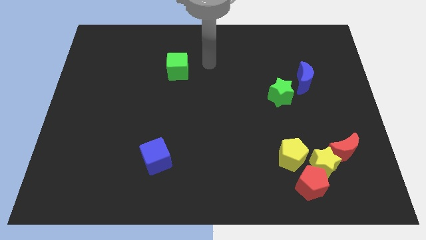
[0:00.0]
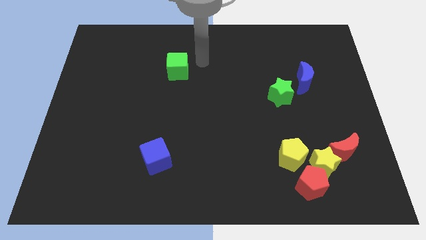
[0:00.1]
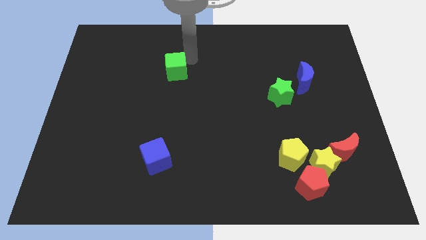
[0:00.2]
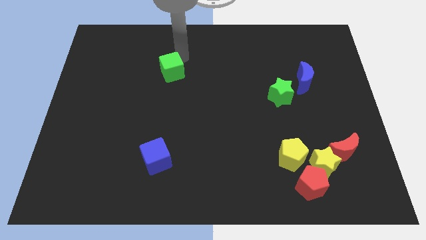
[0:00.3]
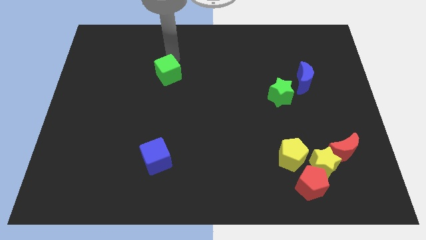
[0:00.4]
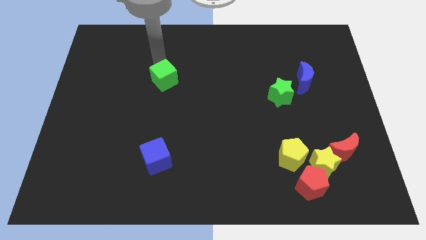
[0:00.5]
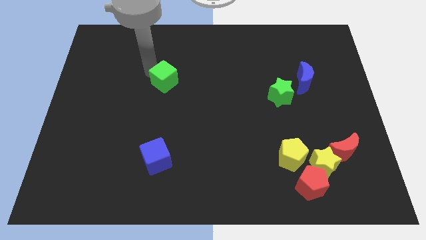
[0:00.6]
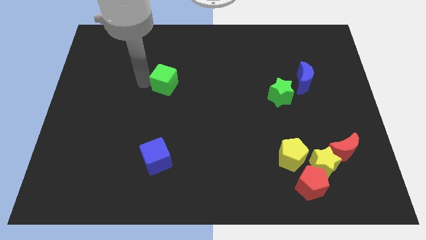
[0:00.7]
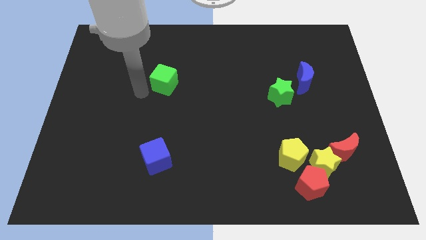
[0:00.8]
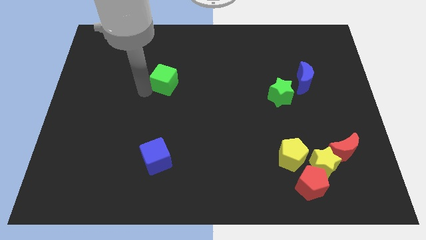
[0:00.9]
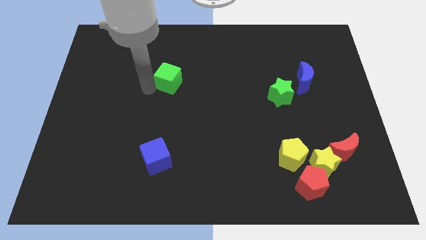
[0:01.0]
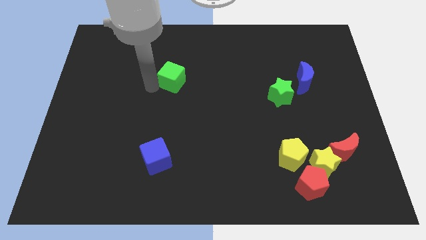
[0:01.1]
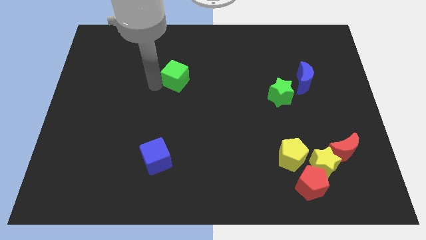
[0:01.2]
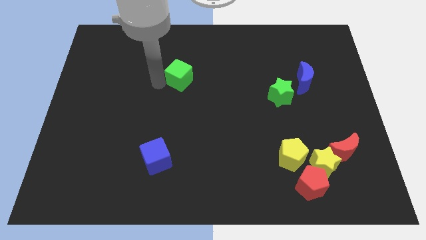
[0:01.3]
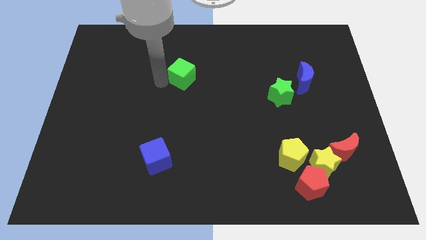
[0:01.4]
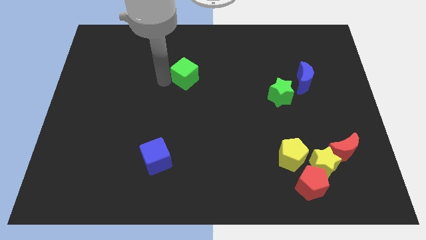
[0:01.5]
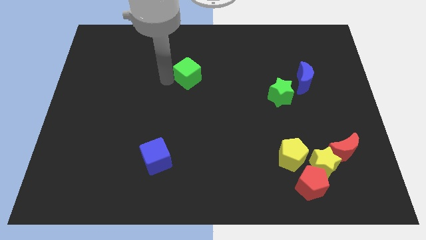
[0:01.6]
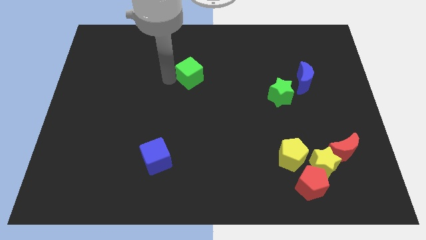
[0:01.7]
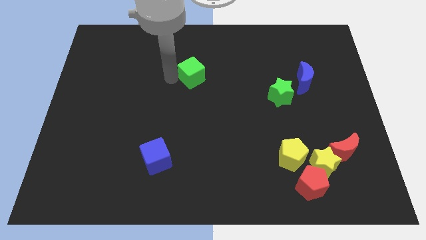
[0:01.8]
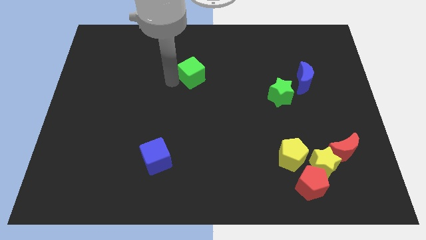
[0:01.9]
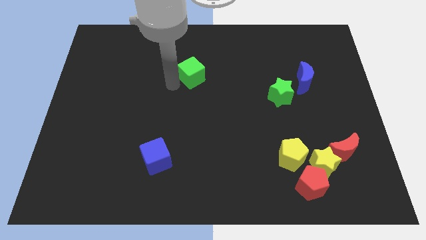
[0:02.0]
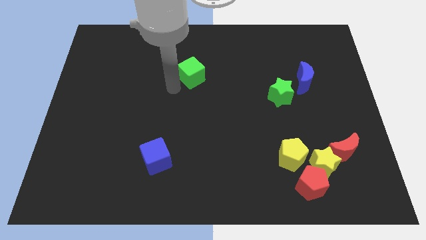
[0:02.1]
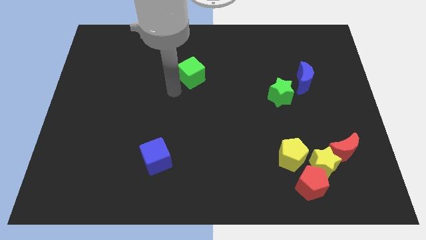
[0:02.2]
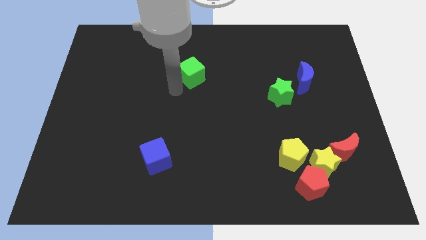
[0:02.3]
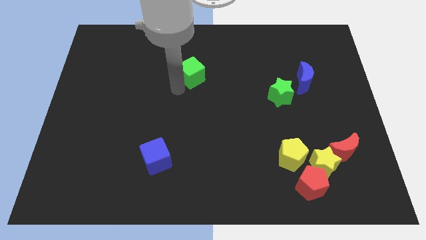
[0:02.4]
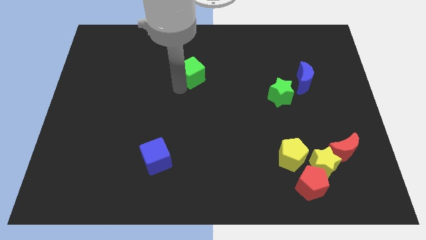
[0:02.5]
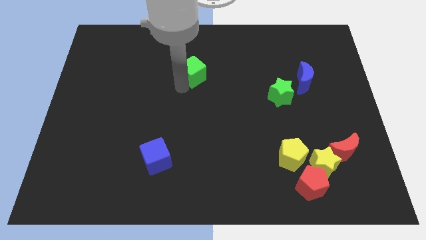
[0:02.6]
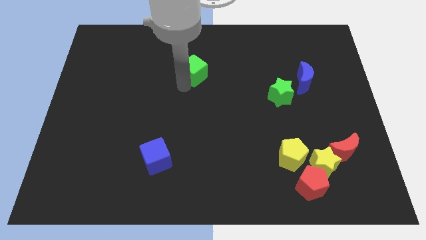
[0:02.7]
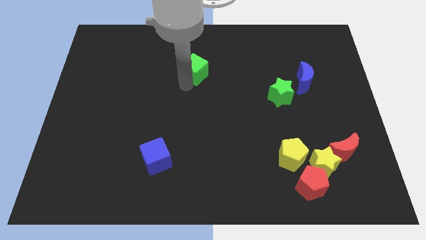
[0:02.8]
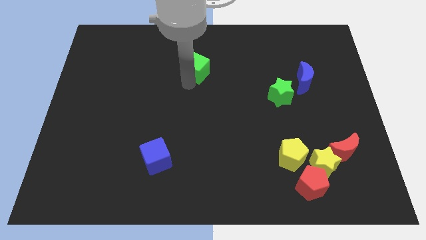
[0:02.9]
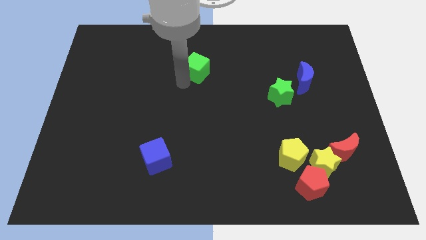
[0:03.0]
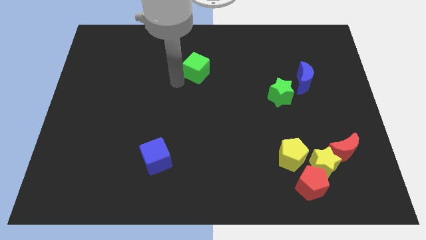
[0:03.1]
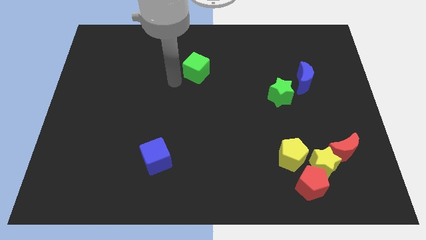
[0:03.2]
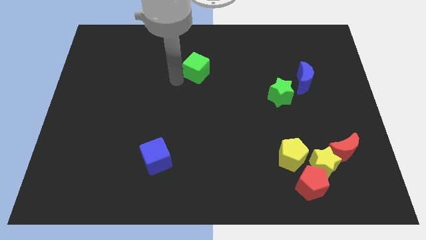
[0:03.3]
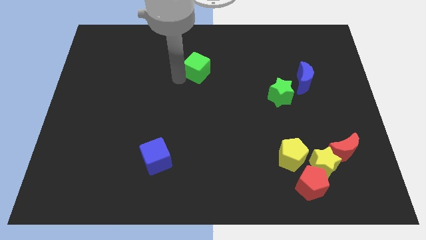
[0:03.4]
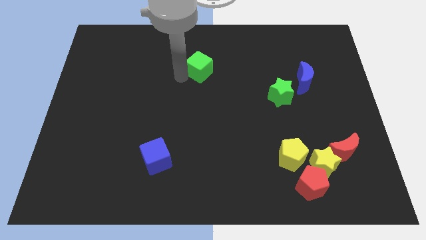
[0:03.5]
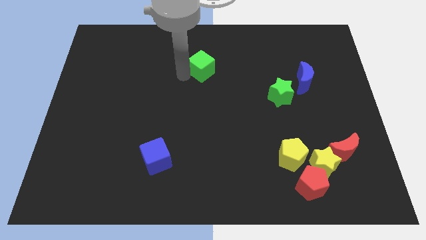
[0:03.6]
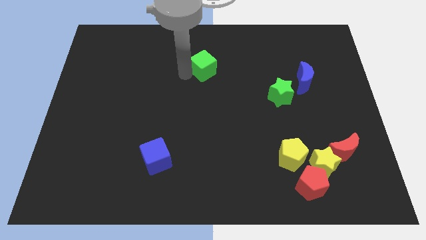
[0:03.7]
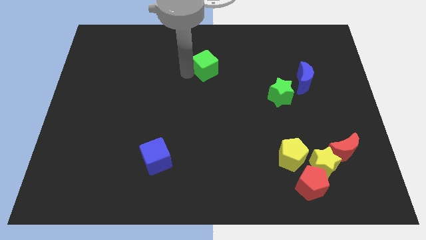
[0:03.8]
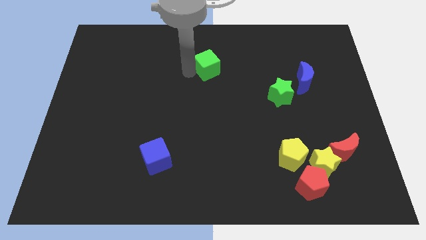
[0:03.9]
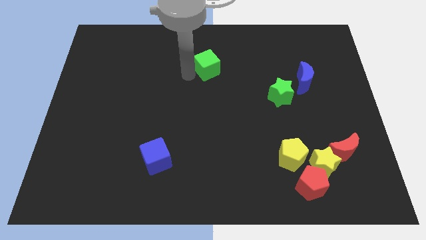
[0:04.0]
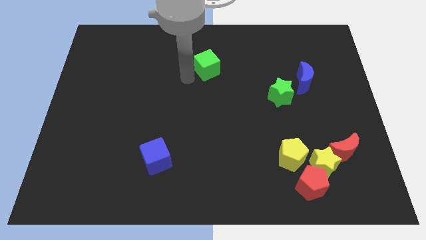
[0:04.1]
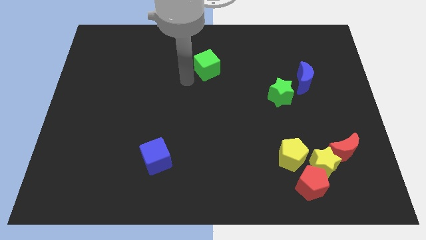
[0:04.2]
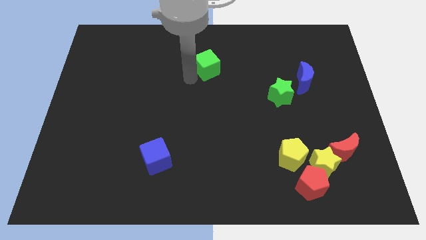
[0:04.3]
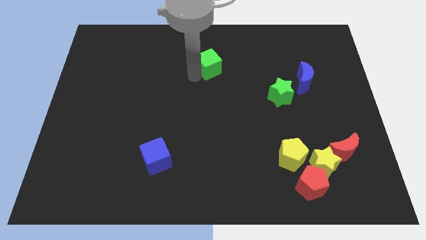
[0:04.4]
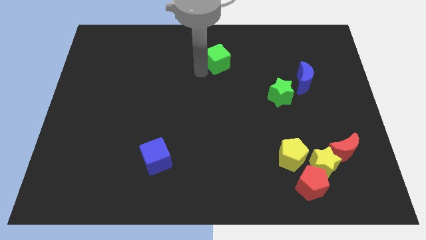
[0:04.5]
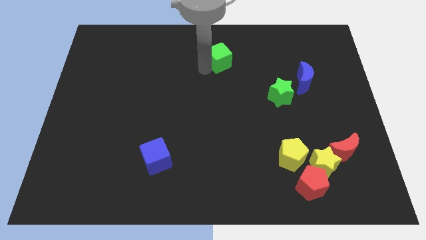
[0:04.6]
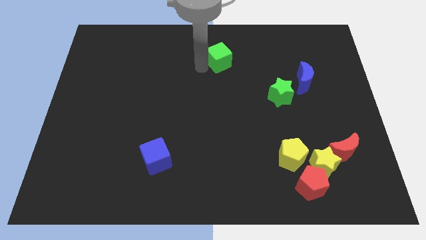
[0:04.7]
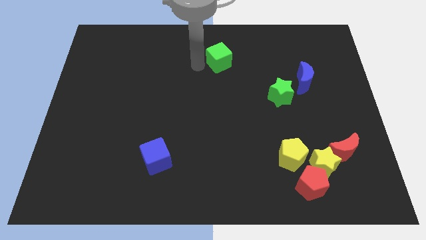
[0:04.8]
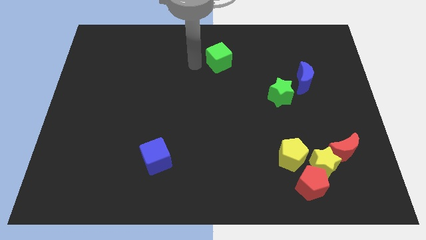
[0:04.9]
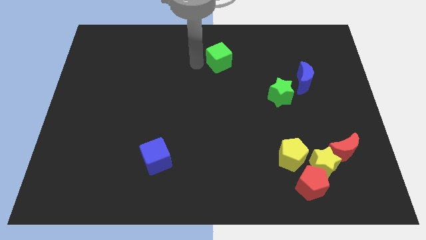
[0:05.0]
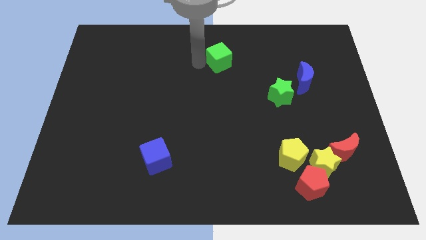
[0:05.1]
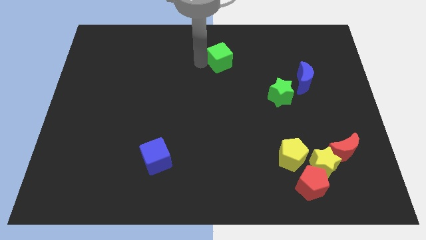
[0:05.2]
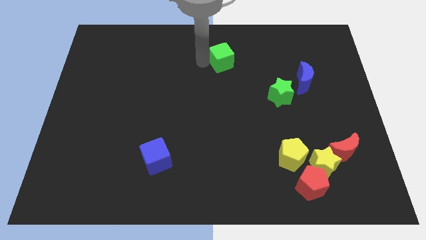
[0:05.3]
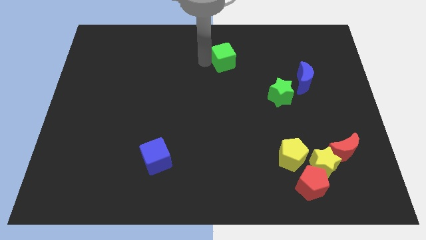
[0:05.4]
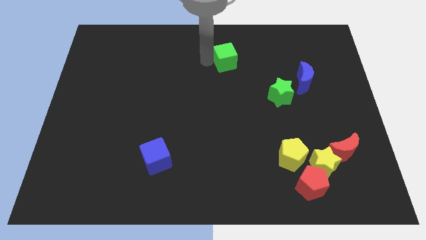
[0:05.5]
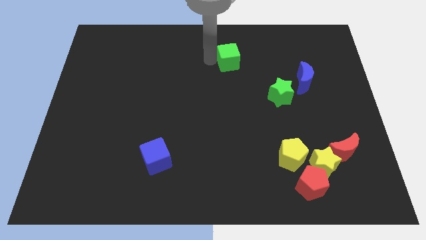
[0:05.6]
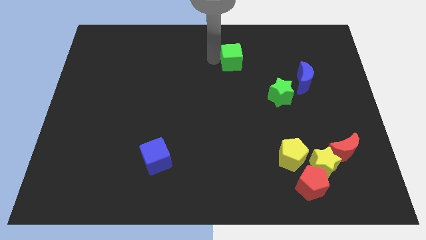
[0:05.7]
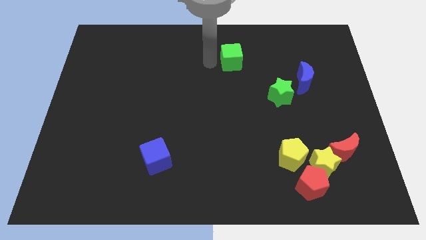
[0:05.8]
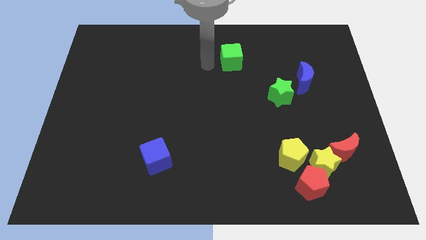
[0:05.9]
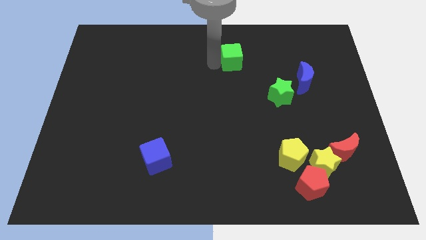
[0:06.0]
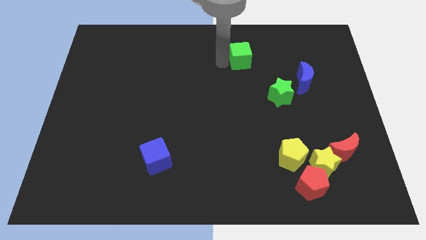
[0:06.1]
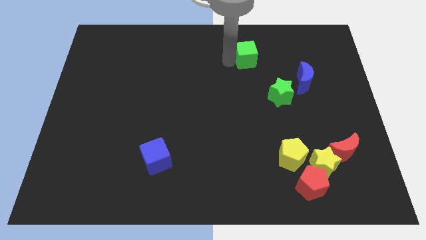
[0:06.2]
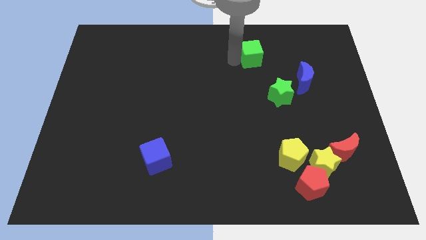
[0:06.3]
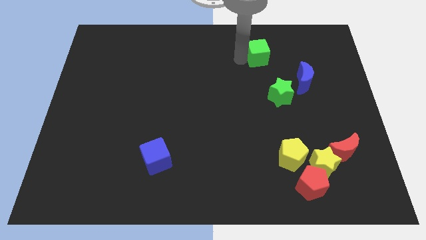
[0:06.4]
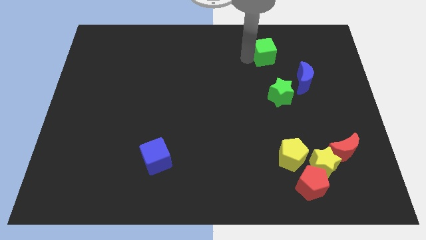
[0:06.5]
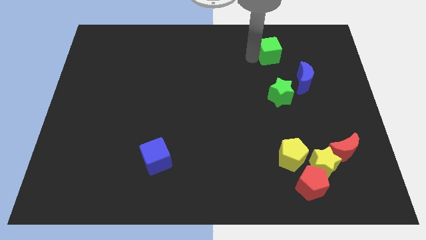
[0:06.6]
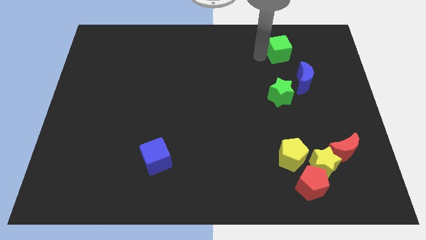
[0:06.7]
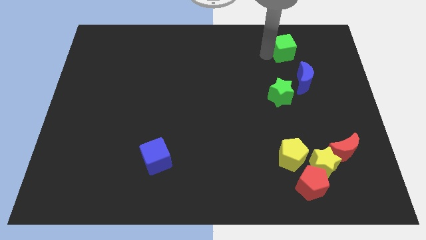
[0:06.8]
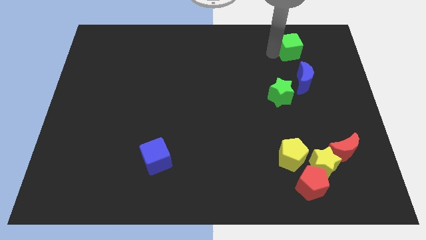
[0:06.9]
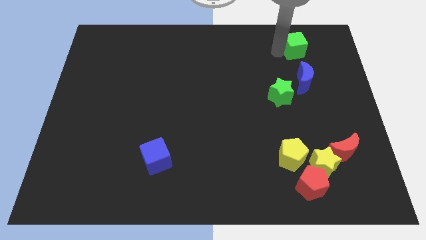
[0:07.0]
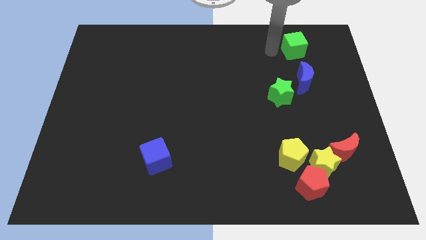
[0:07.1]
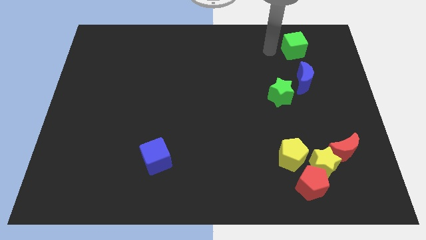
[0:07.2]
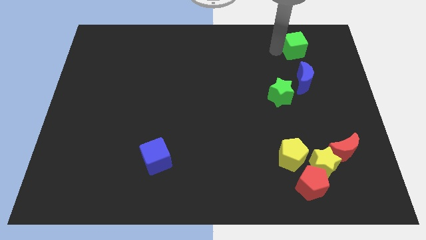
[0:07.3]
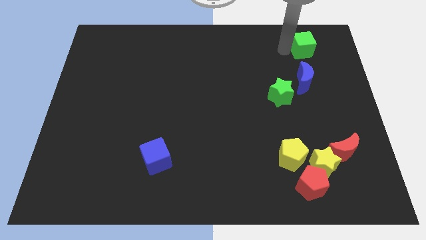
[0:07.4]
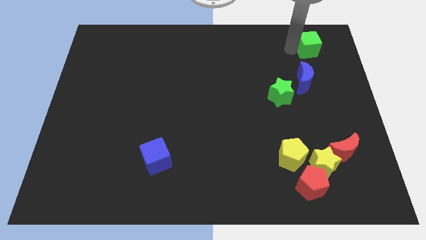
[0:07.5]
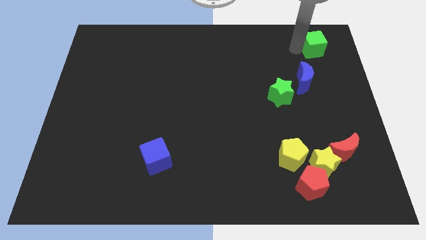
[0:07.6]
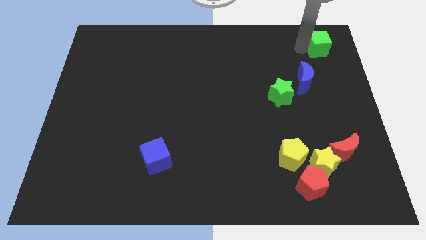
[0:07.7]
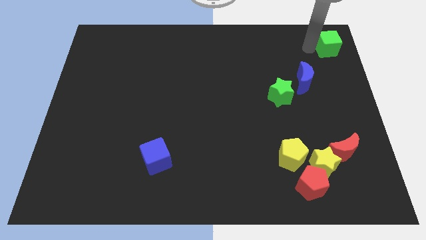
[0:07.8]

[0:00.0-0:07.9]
push the green cube to the top right of the board
